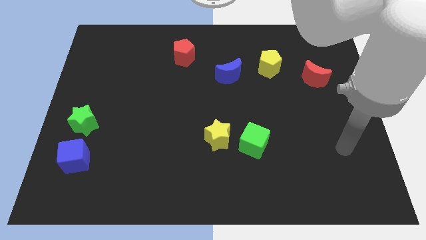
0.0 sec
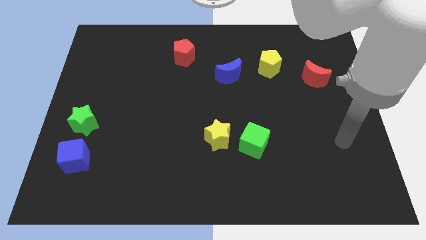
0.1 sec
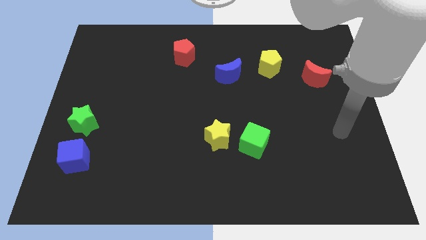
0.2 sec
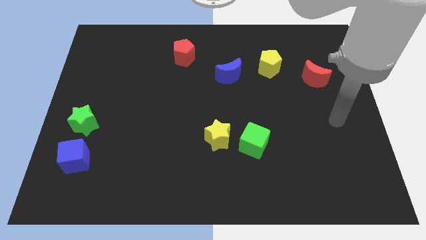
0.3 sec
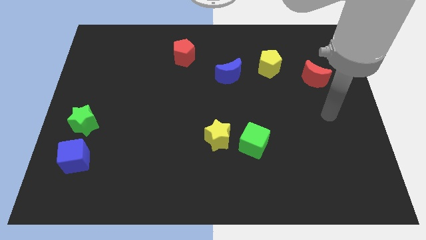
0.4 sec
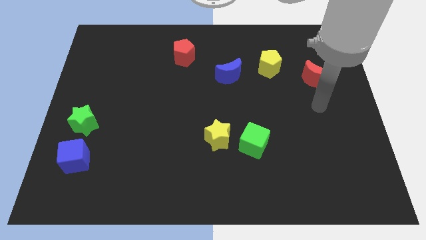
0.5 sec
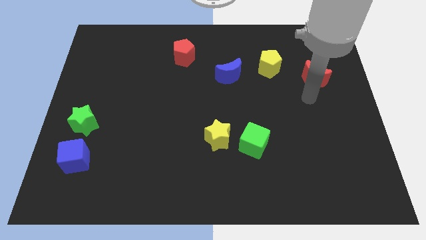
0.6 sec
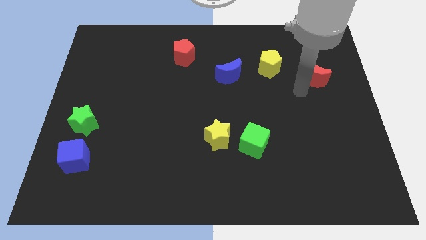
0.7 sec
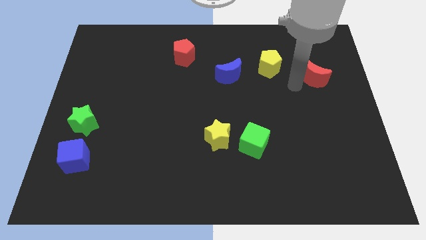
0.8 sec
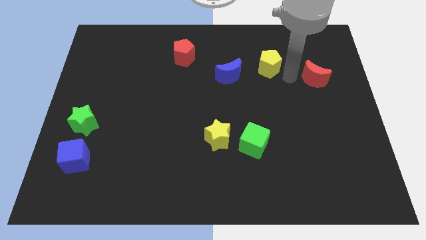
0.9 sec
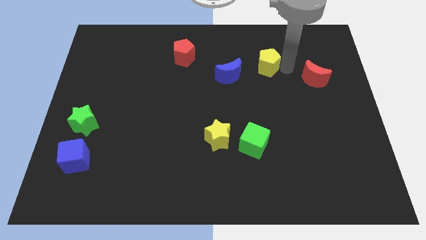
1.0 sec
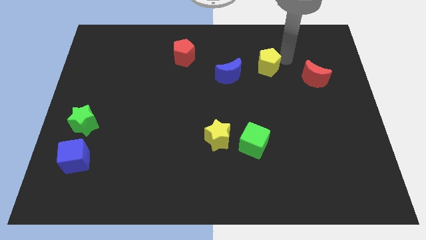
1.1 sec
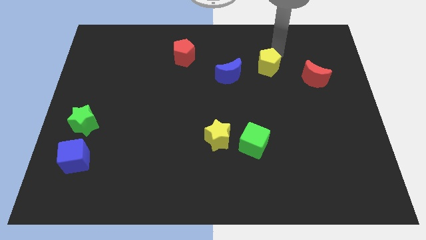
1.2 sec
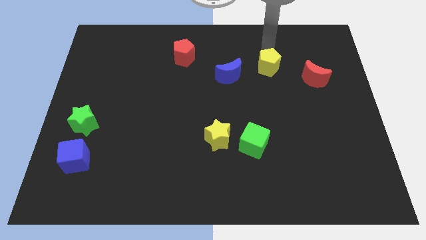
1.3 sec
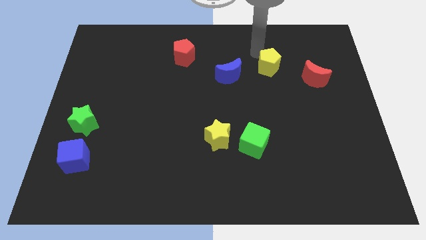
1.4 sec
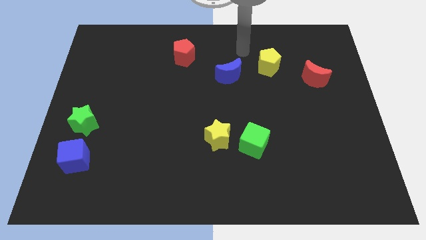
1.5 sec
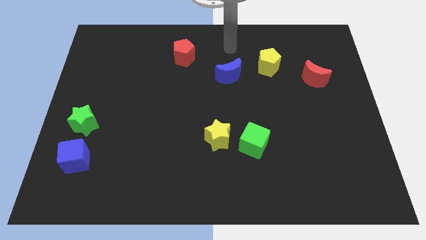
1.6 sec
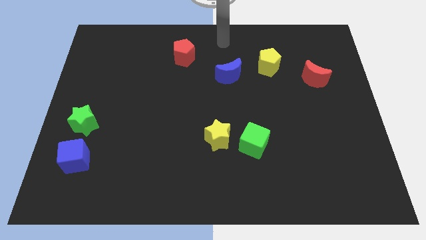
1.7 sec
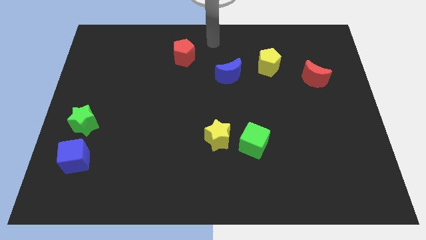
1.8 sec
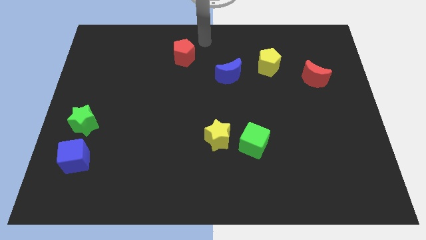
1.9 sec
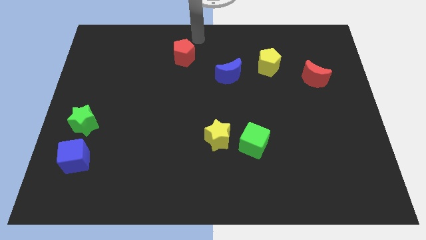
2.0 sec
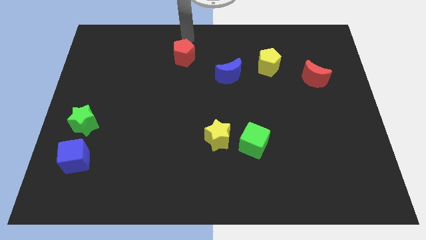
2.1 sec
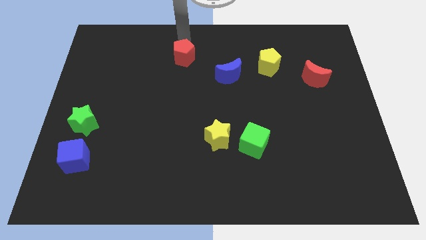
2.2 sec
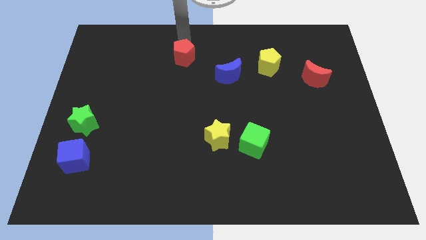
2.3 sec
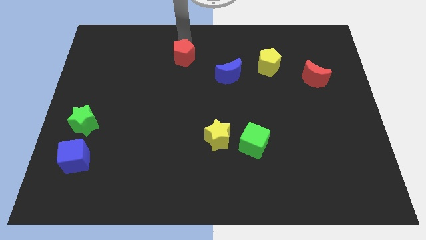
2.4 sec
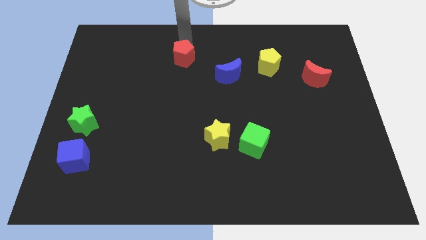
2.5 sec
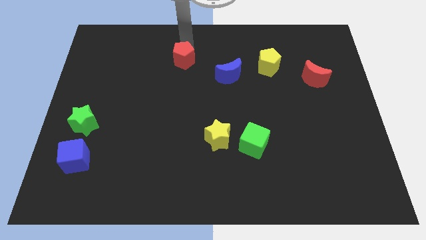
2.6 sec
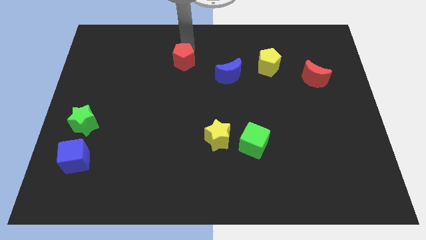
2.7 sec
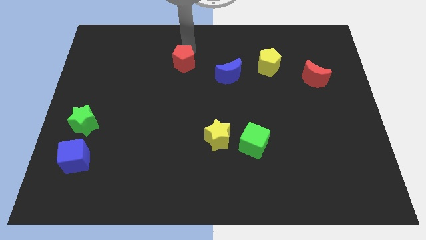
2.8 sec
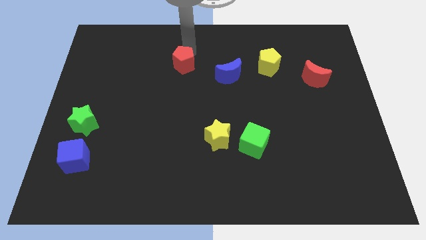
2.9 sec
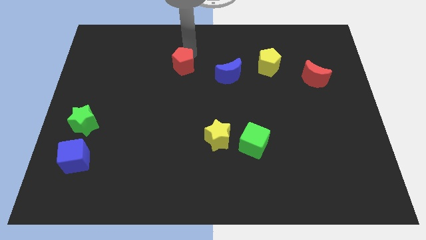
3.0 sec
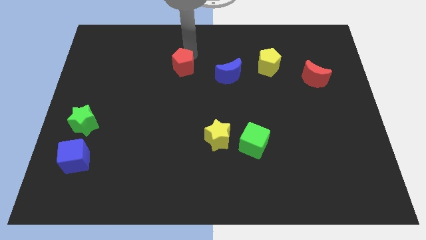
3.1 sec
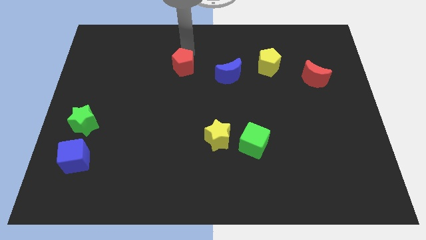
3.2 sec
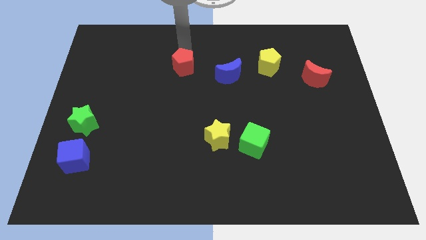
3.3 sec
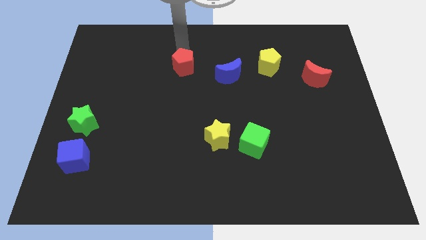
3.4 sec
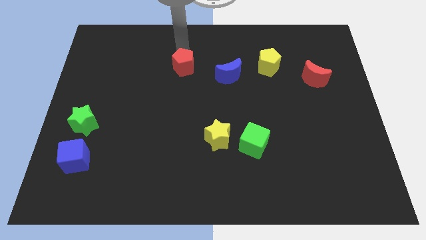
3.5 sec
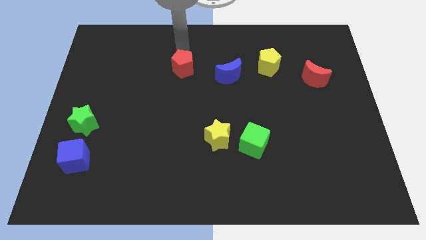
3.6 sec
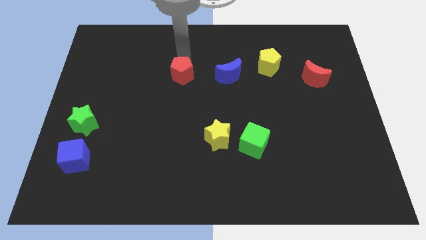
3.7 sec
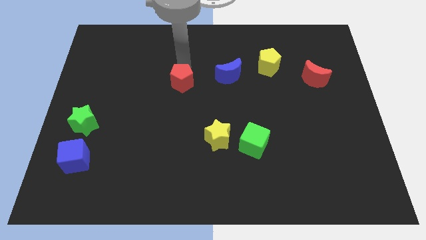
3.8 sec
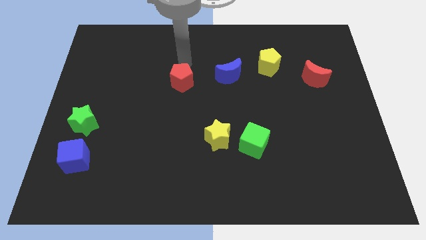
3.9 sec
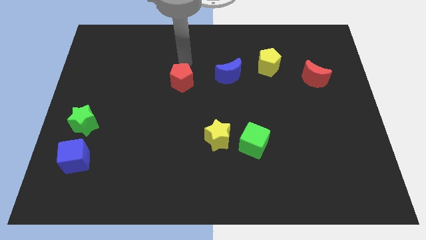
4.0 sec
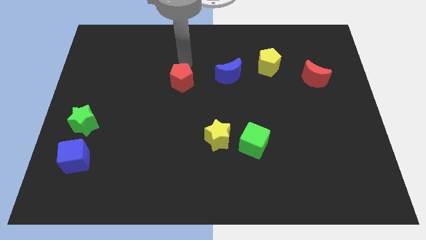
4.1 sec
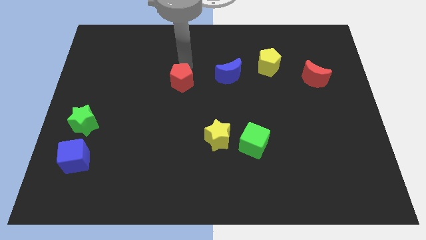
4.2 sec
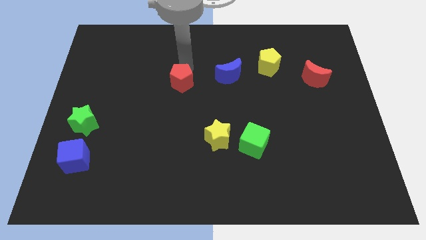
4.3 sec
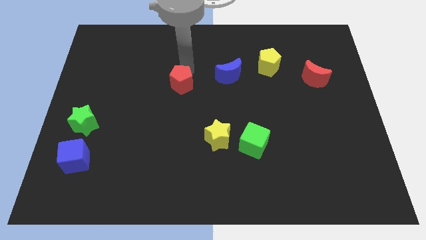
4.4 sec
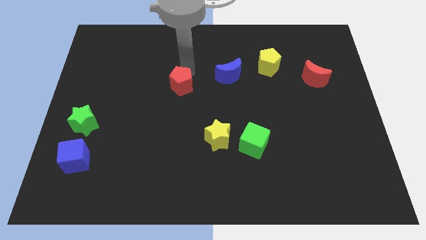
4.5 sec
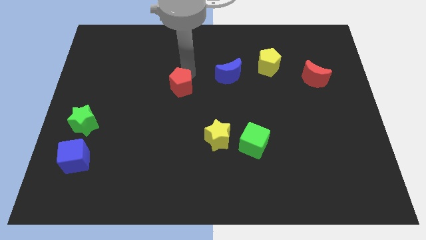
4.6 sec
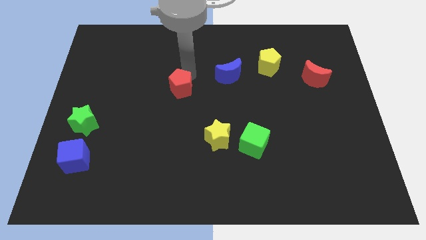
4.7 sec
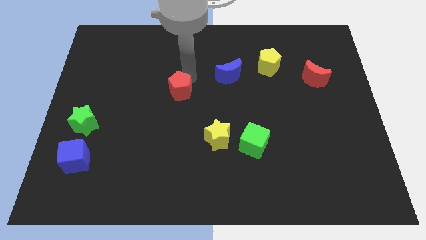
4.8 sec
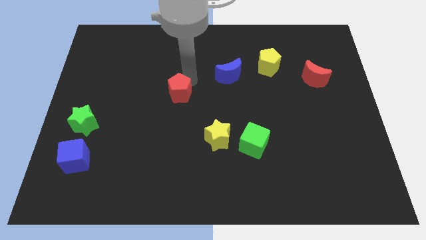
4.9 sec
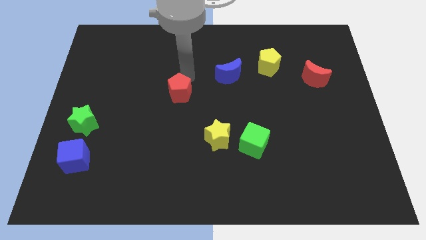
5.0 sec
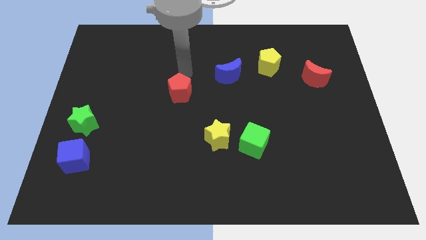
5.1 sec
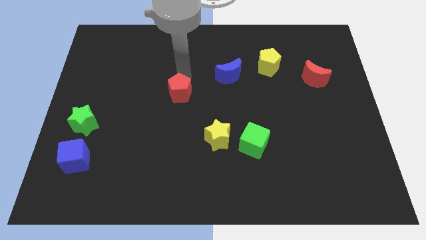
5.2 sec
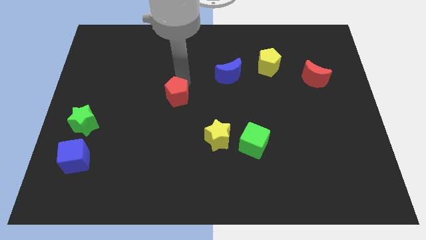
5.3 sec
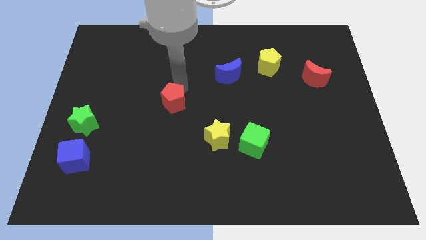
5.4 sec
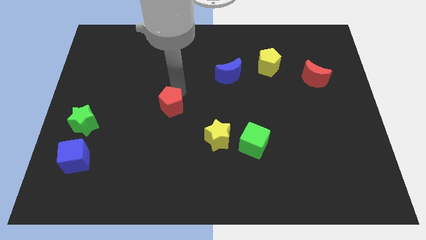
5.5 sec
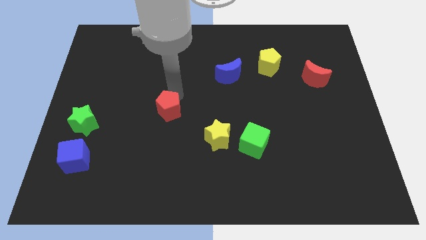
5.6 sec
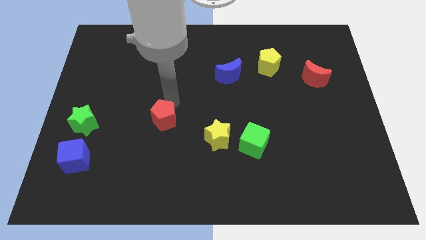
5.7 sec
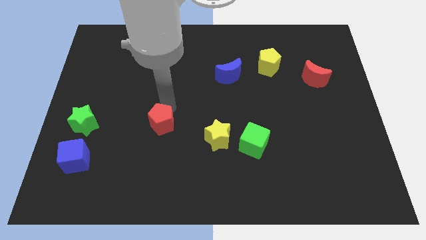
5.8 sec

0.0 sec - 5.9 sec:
move the red pentagon to the left side of the yellow star
